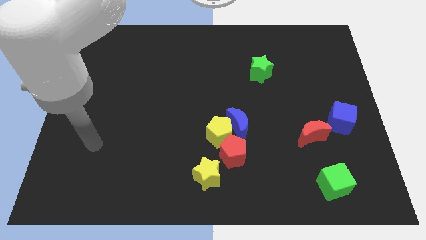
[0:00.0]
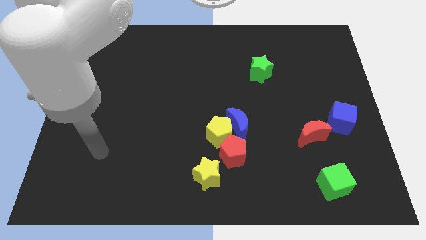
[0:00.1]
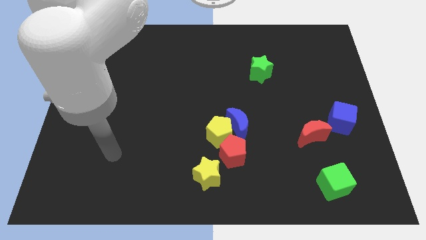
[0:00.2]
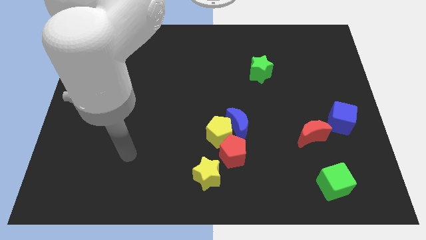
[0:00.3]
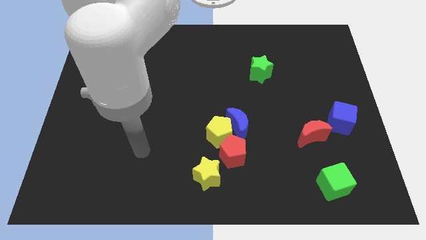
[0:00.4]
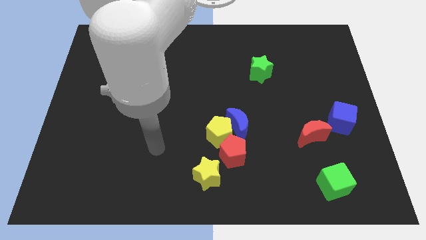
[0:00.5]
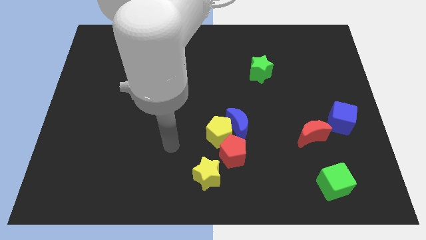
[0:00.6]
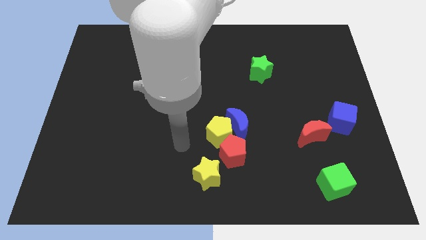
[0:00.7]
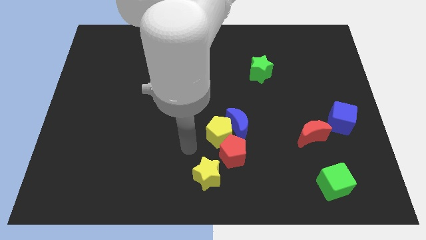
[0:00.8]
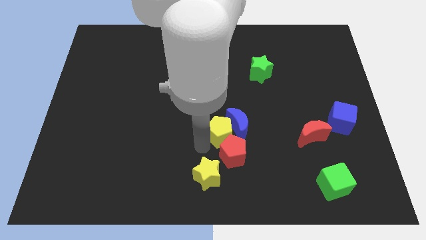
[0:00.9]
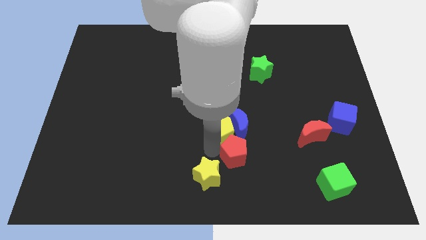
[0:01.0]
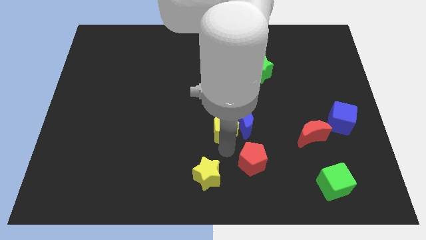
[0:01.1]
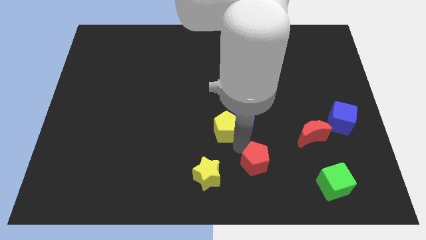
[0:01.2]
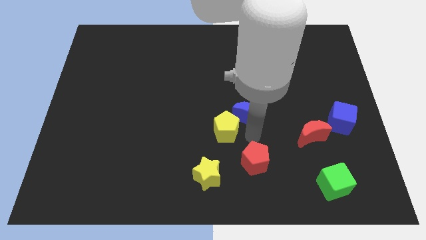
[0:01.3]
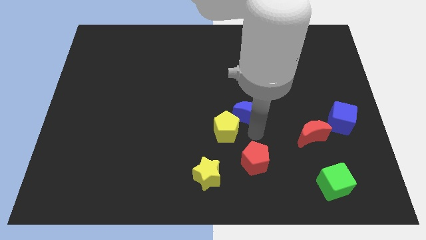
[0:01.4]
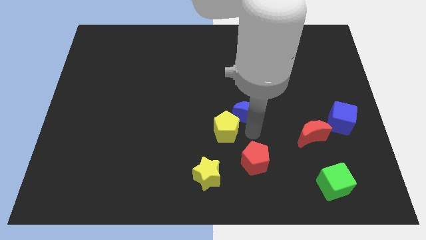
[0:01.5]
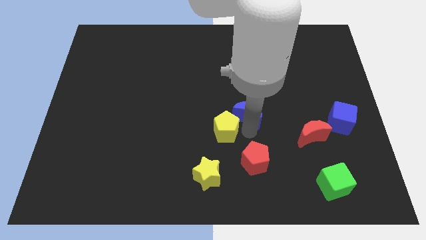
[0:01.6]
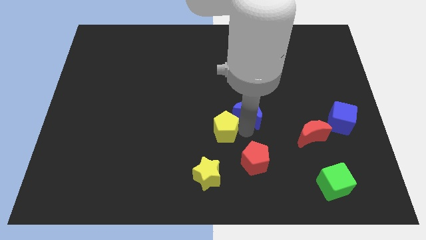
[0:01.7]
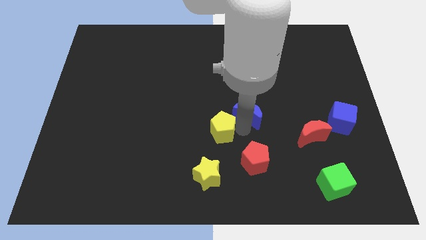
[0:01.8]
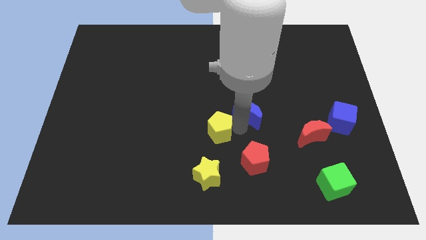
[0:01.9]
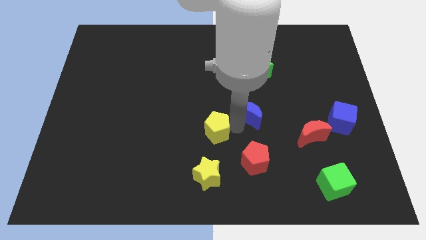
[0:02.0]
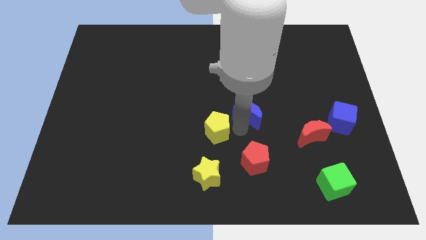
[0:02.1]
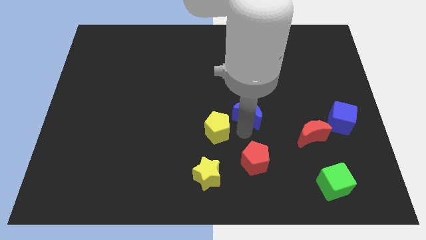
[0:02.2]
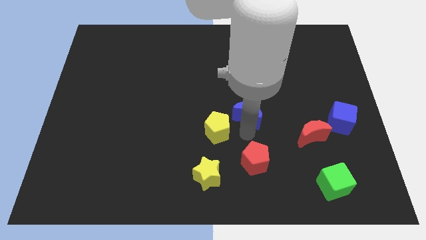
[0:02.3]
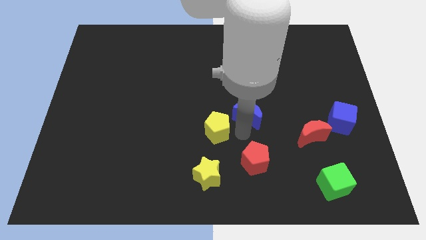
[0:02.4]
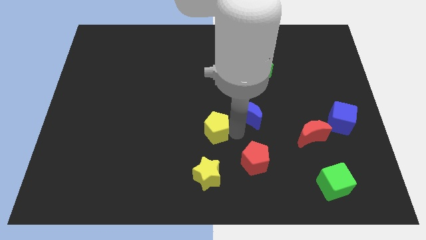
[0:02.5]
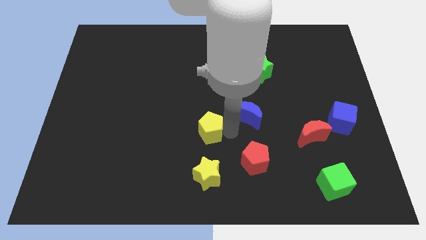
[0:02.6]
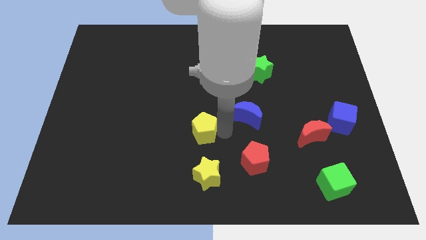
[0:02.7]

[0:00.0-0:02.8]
pull the yellow pentagon apart from the blue moon and red pentagon

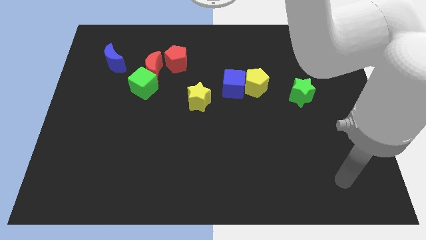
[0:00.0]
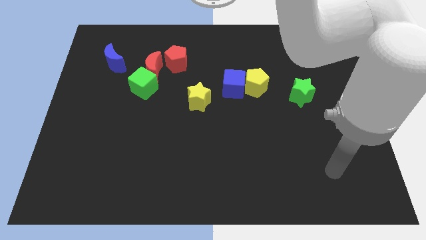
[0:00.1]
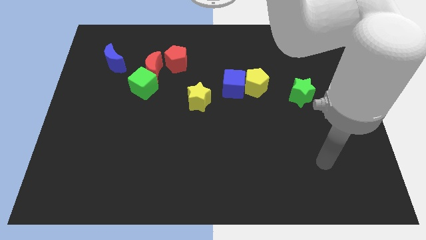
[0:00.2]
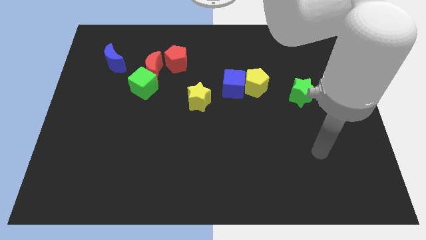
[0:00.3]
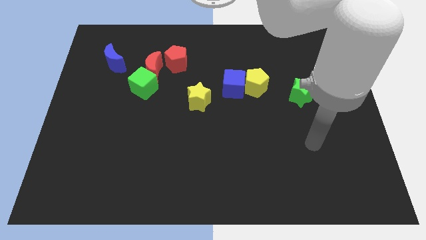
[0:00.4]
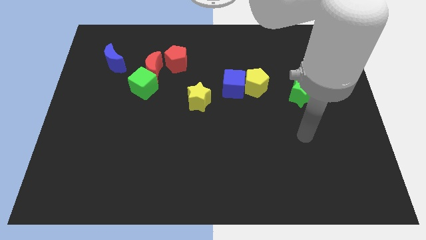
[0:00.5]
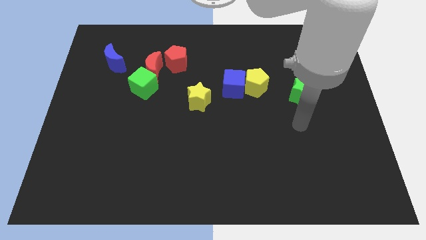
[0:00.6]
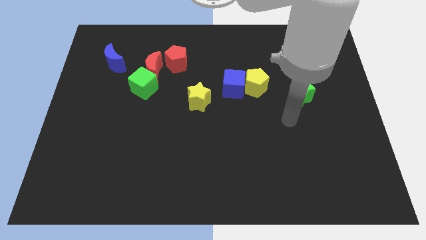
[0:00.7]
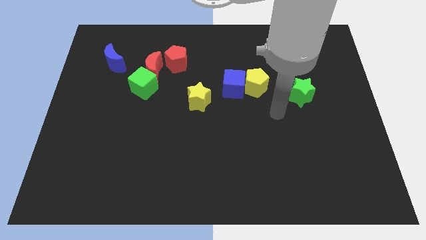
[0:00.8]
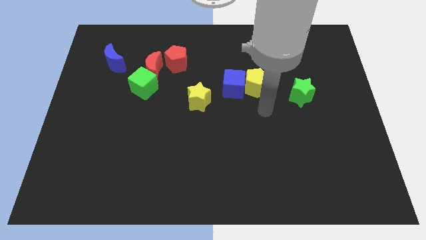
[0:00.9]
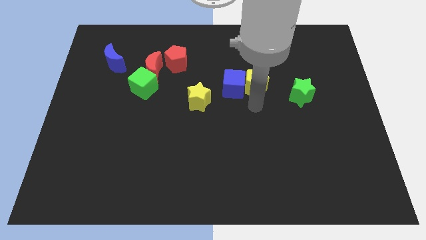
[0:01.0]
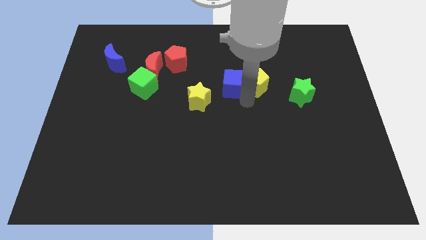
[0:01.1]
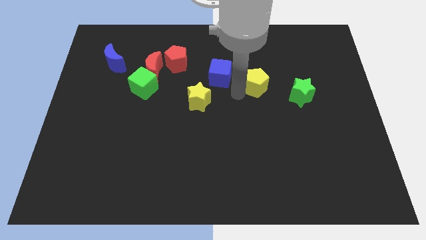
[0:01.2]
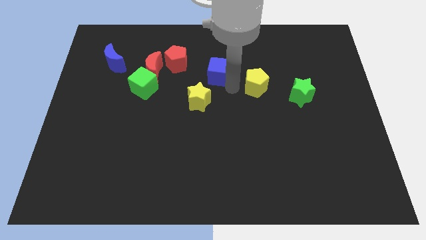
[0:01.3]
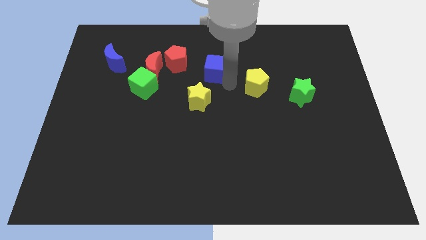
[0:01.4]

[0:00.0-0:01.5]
separate the yellow pentagon from the blue cube

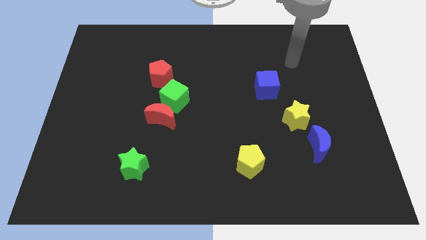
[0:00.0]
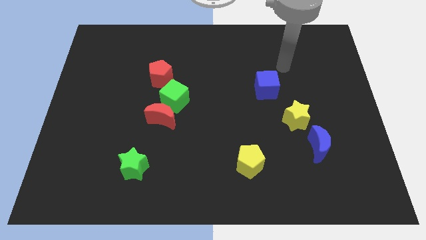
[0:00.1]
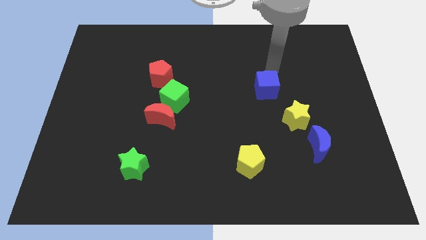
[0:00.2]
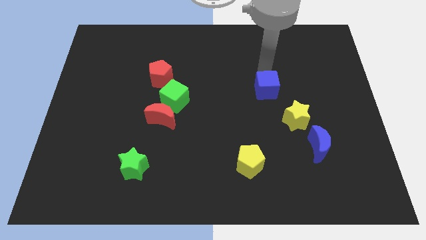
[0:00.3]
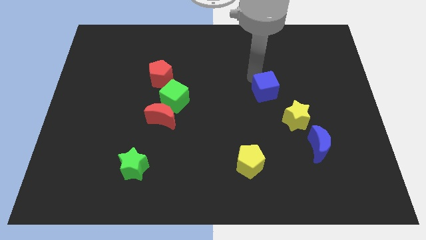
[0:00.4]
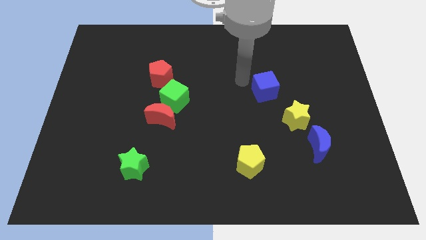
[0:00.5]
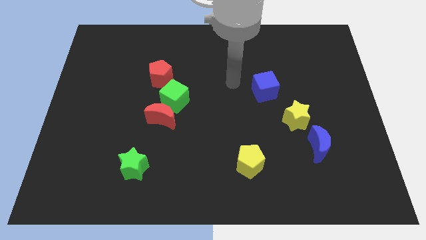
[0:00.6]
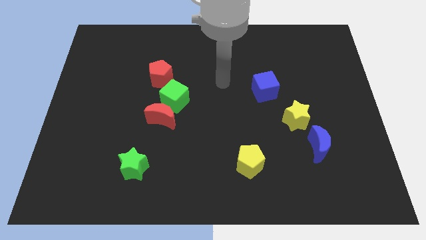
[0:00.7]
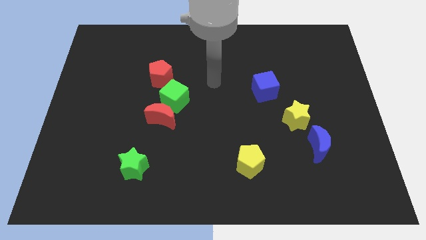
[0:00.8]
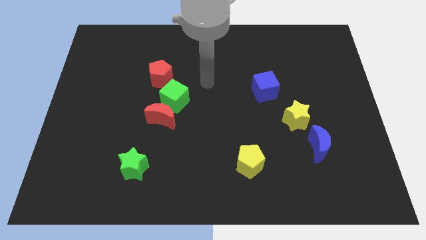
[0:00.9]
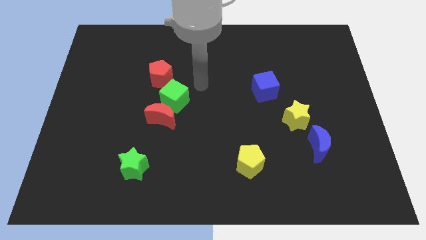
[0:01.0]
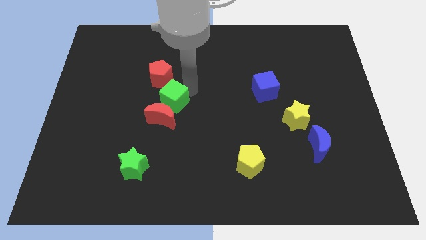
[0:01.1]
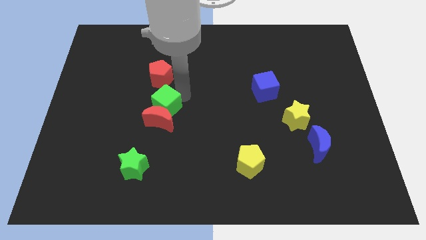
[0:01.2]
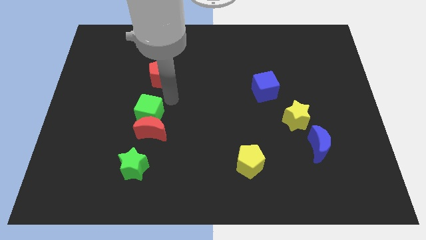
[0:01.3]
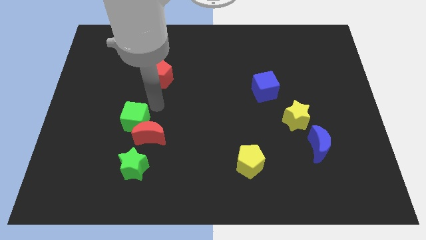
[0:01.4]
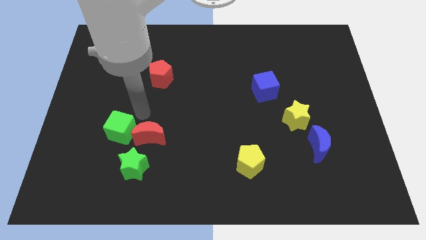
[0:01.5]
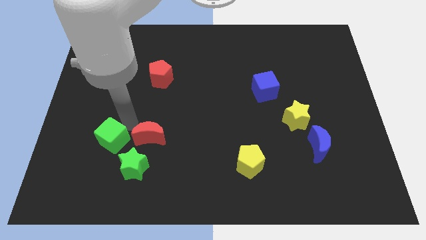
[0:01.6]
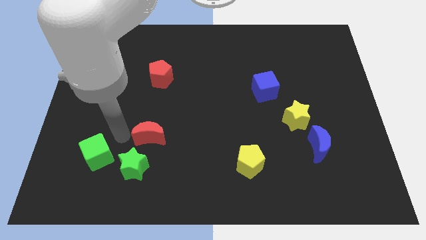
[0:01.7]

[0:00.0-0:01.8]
move the red moon away from the green cube

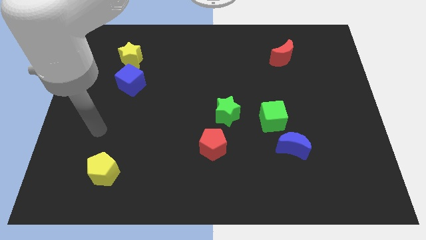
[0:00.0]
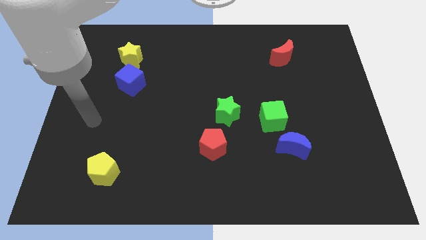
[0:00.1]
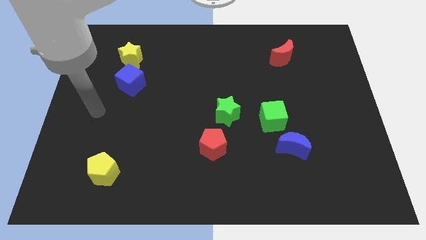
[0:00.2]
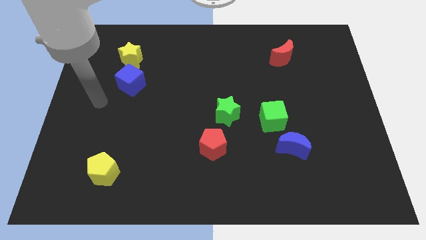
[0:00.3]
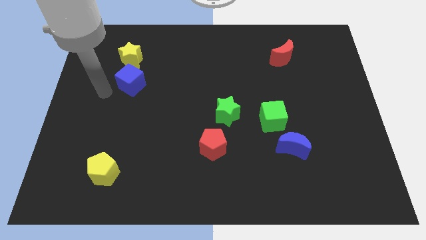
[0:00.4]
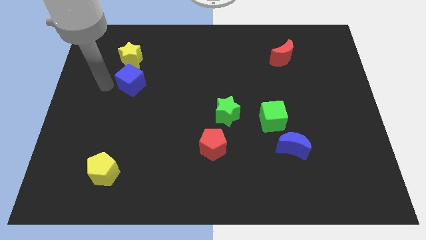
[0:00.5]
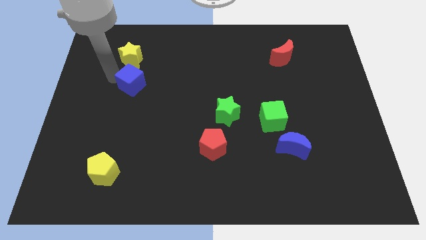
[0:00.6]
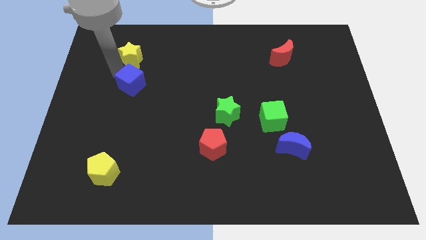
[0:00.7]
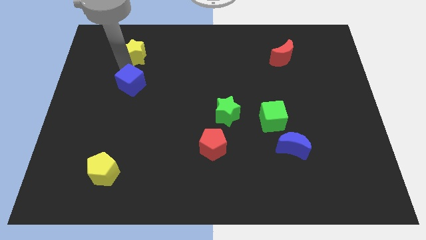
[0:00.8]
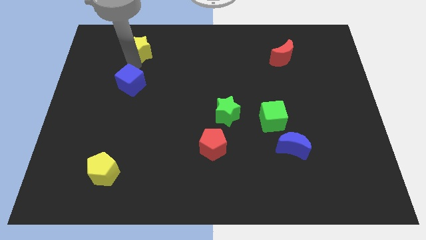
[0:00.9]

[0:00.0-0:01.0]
move the blue cube away from the yellow star

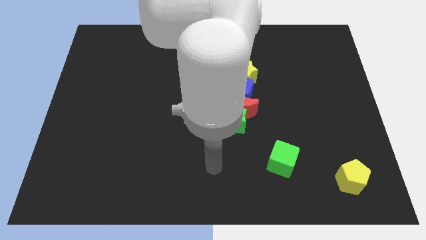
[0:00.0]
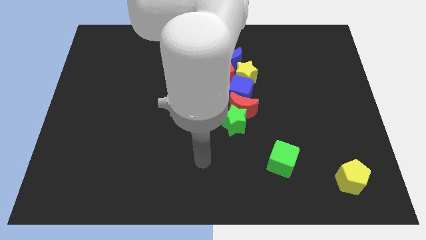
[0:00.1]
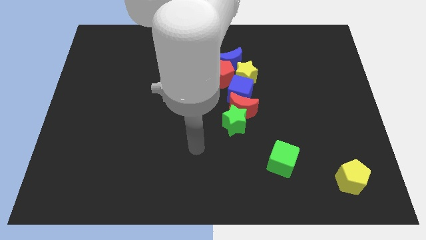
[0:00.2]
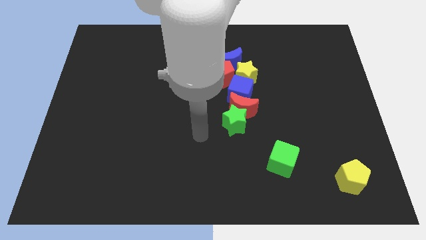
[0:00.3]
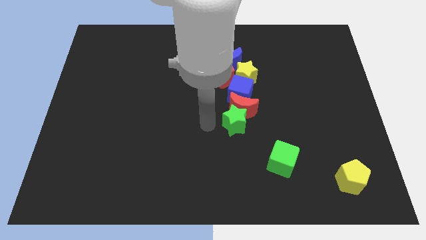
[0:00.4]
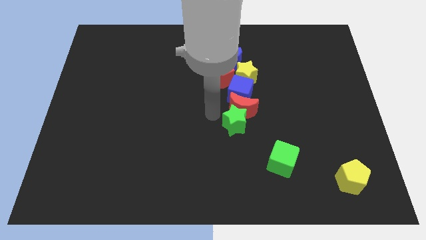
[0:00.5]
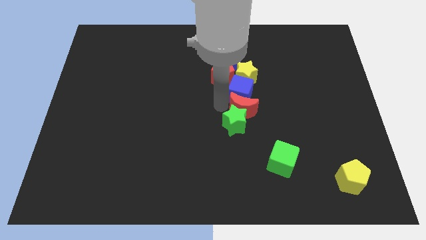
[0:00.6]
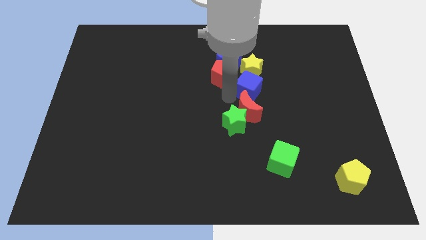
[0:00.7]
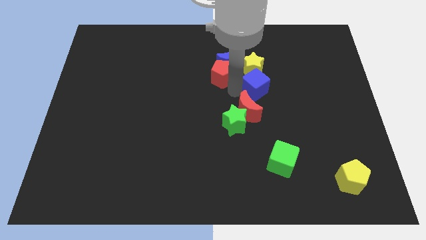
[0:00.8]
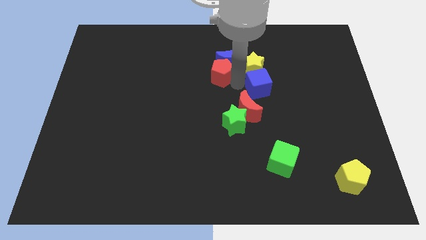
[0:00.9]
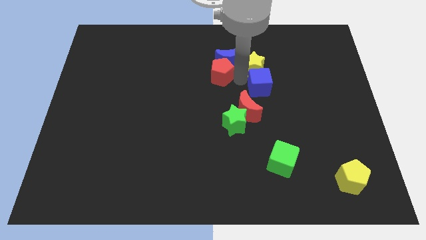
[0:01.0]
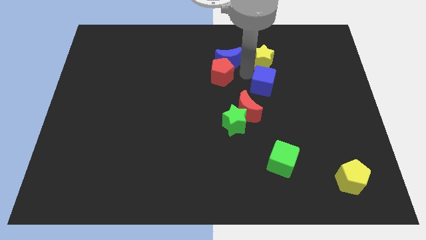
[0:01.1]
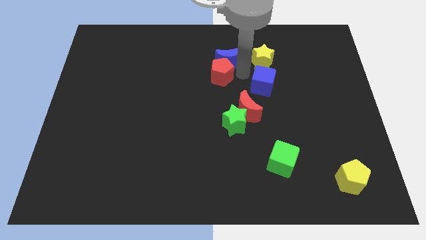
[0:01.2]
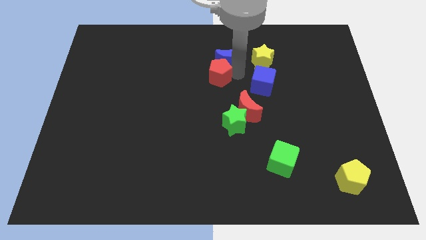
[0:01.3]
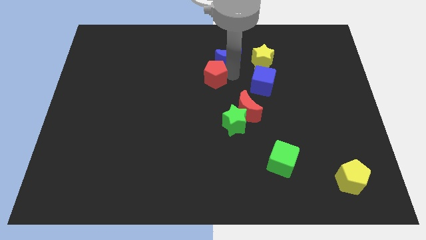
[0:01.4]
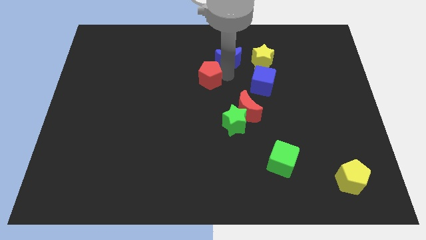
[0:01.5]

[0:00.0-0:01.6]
pull the red pentagon apart from the blue moon, yellow star, and blue cube

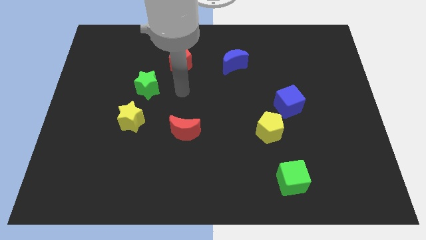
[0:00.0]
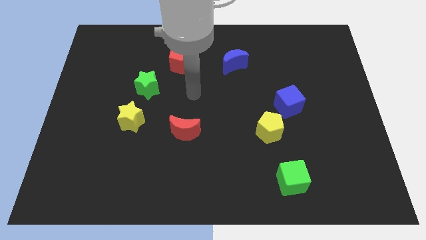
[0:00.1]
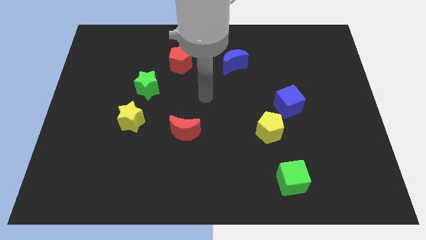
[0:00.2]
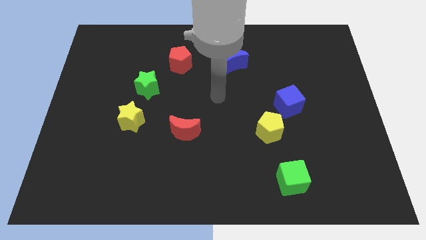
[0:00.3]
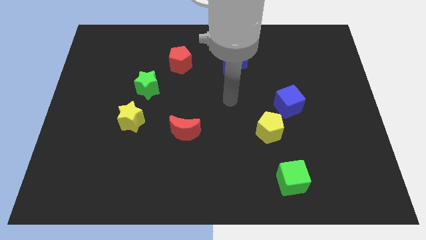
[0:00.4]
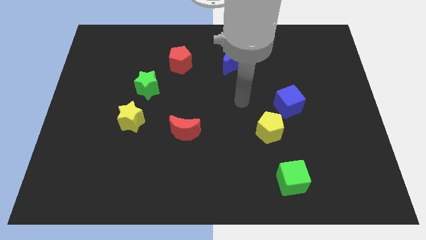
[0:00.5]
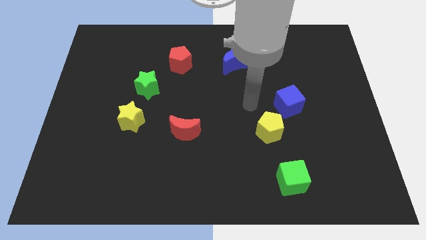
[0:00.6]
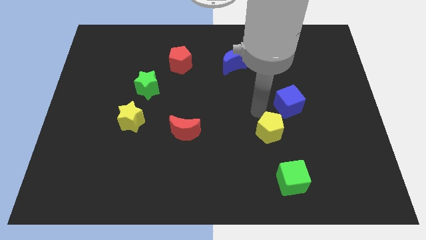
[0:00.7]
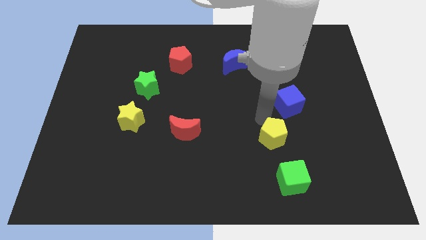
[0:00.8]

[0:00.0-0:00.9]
pull the blue cube apart from the yellow pentagon
